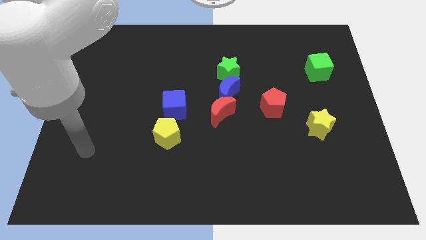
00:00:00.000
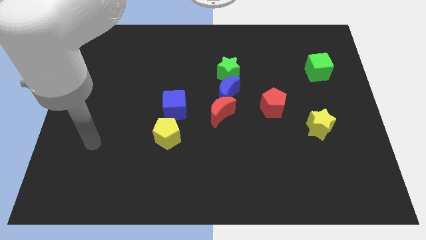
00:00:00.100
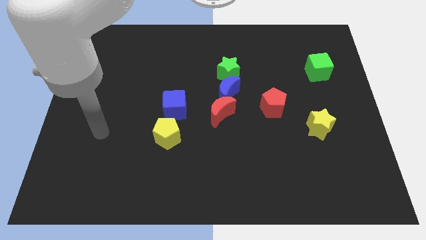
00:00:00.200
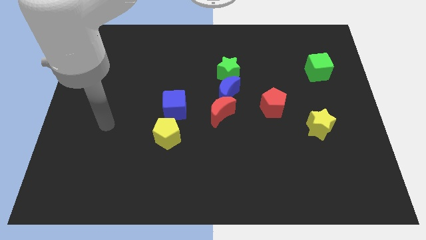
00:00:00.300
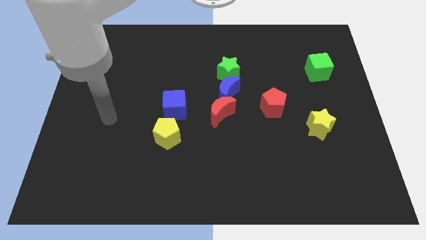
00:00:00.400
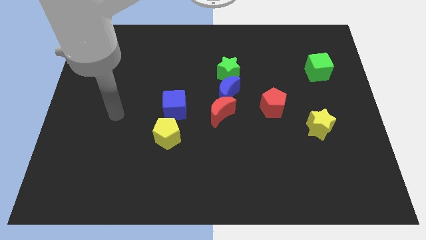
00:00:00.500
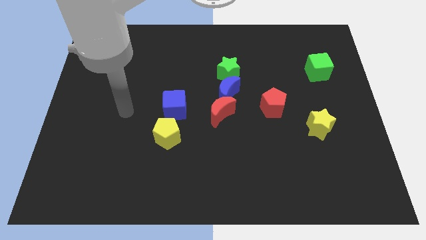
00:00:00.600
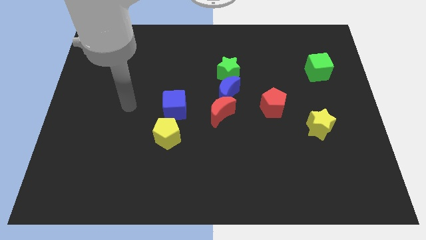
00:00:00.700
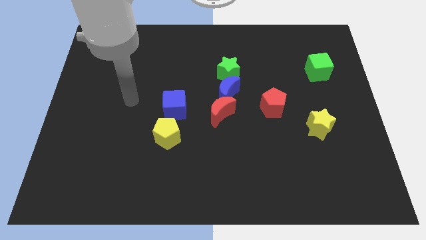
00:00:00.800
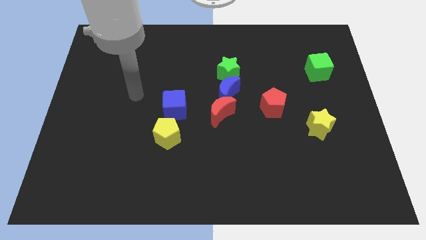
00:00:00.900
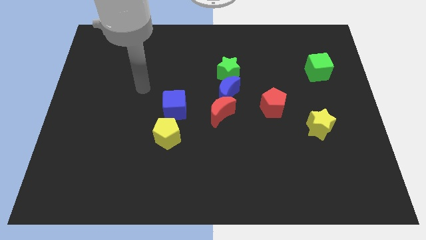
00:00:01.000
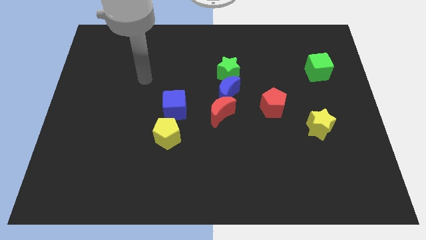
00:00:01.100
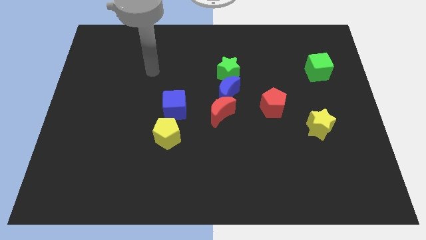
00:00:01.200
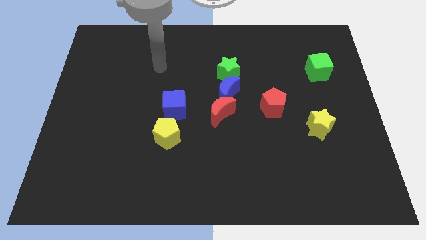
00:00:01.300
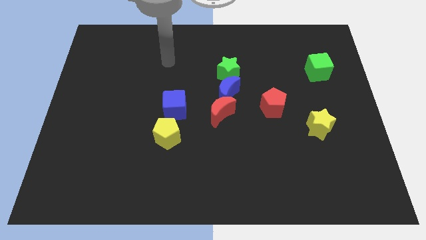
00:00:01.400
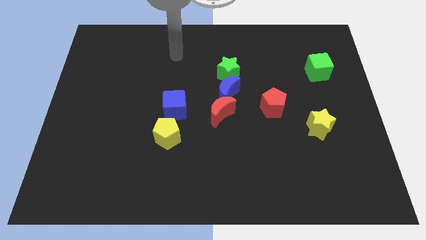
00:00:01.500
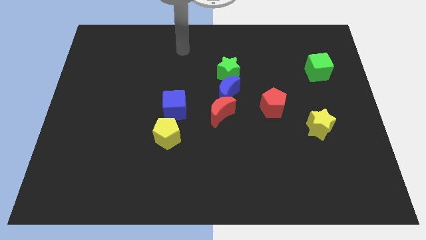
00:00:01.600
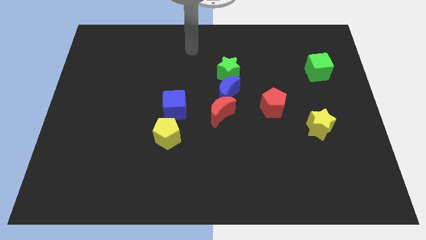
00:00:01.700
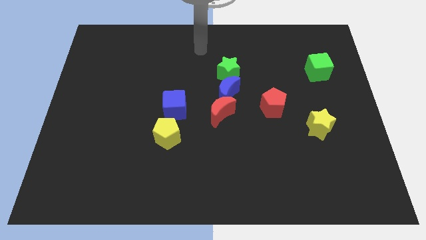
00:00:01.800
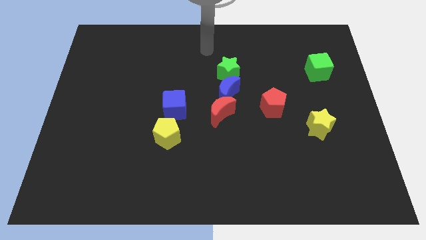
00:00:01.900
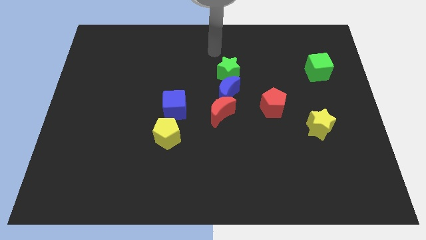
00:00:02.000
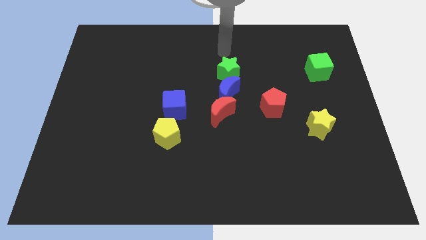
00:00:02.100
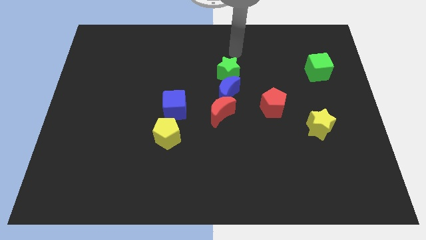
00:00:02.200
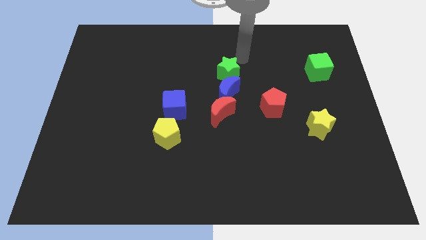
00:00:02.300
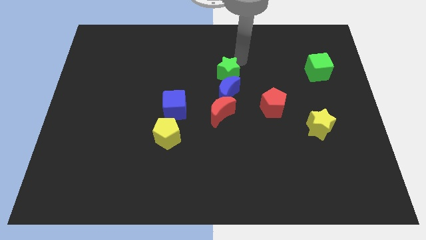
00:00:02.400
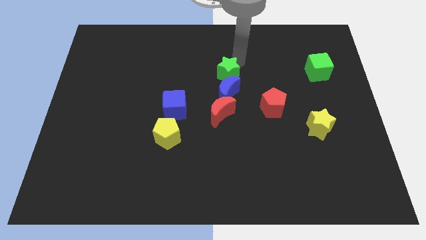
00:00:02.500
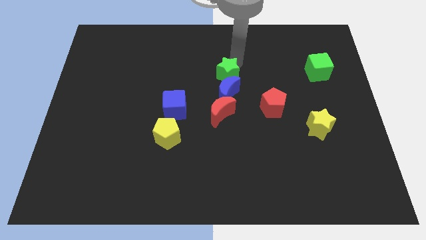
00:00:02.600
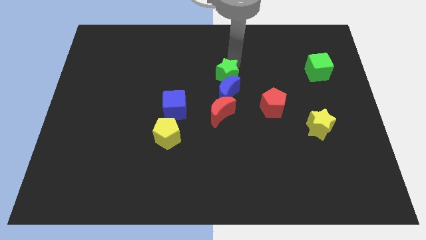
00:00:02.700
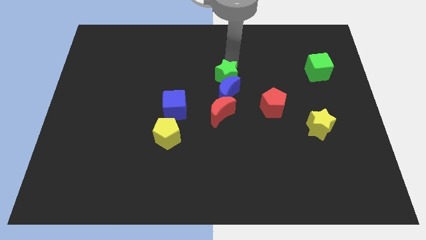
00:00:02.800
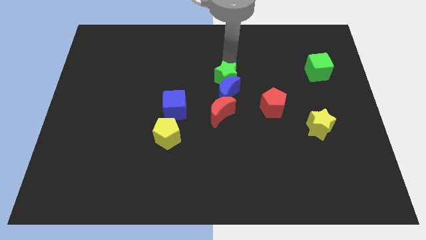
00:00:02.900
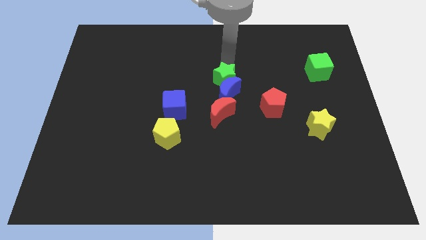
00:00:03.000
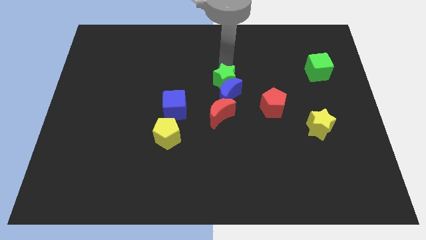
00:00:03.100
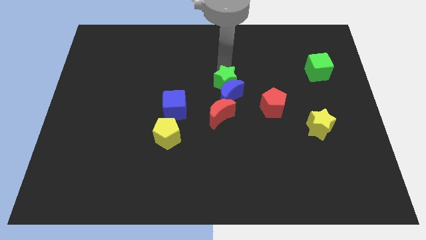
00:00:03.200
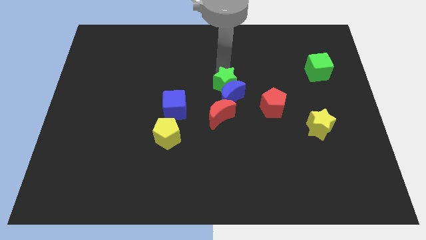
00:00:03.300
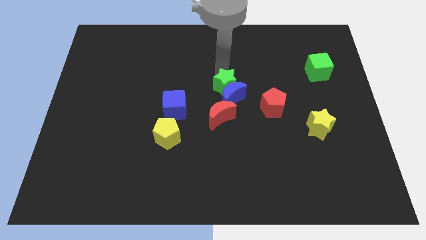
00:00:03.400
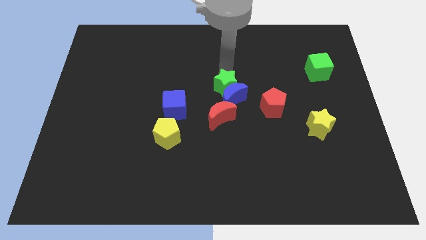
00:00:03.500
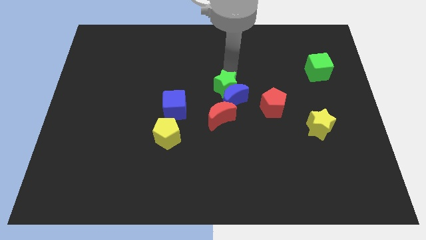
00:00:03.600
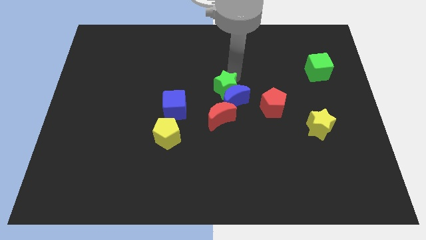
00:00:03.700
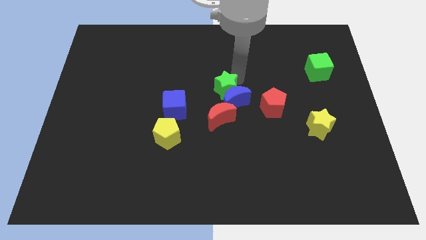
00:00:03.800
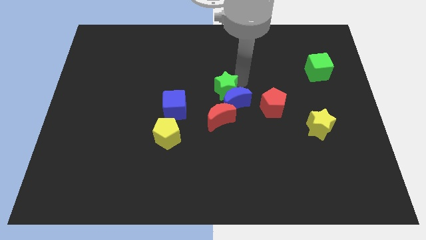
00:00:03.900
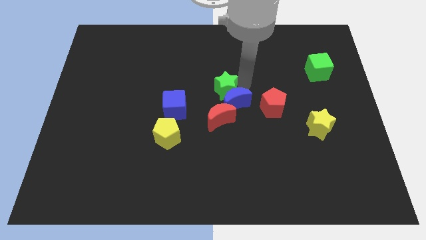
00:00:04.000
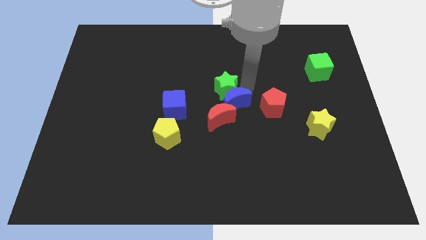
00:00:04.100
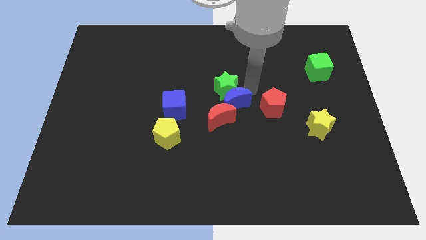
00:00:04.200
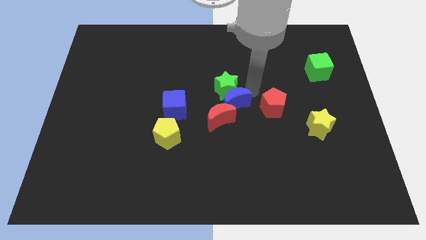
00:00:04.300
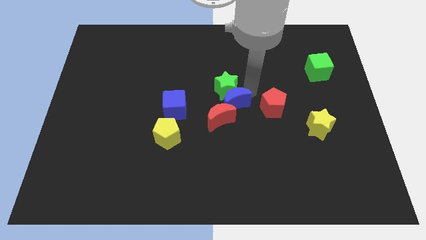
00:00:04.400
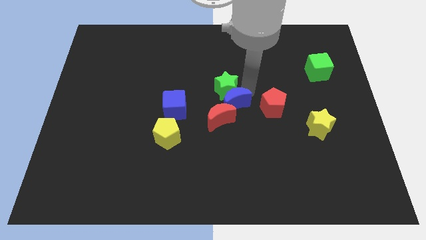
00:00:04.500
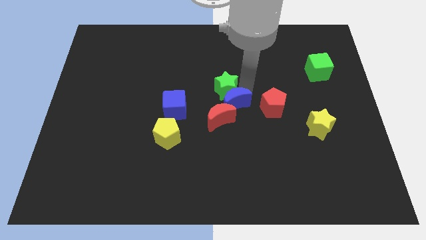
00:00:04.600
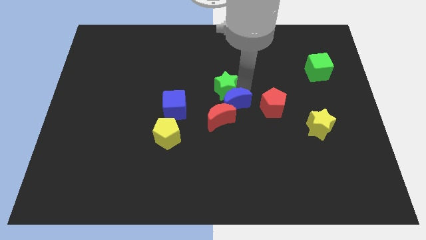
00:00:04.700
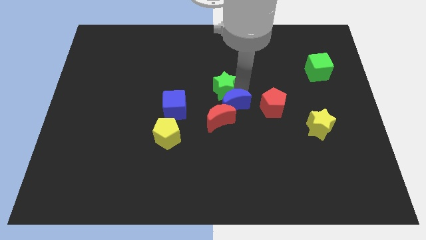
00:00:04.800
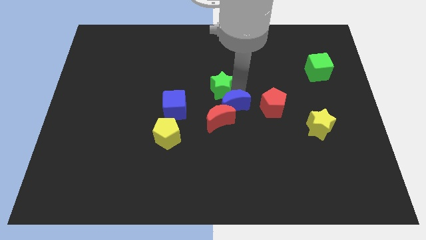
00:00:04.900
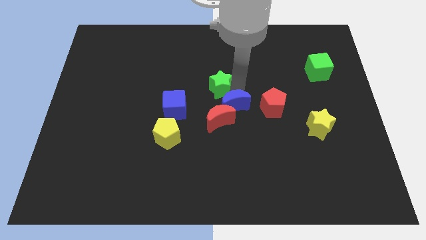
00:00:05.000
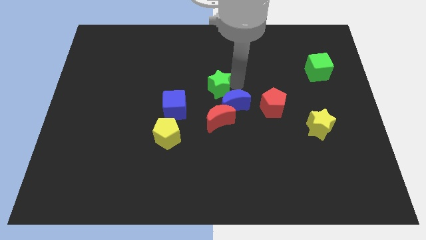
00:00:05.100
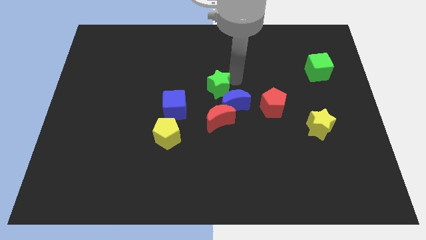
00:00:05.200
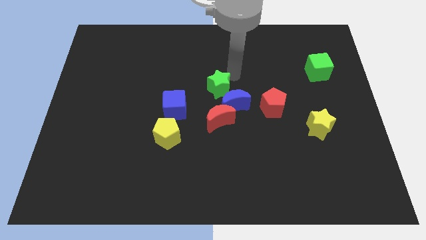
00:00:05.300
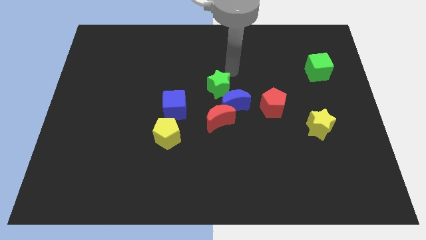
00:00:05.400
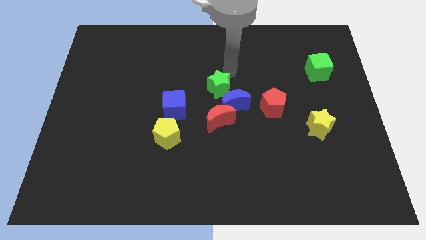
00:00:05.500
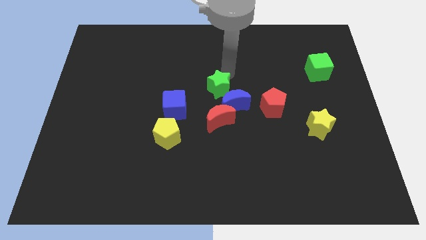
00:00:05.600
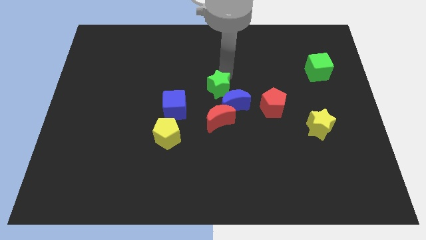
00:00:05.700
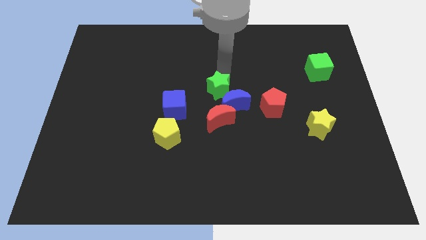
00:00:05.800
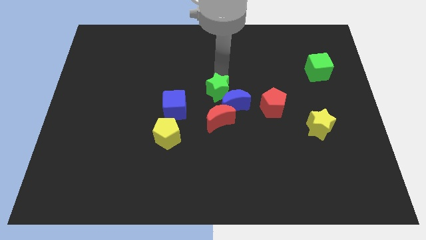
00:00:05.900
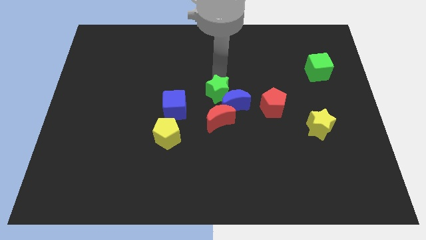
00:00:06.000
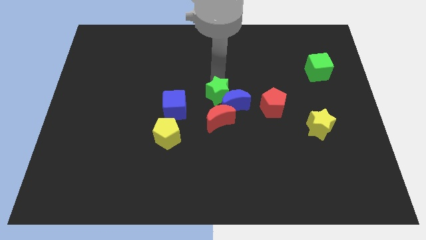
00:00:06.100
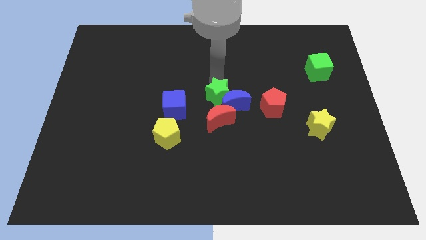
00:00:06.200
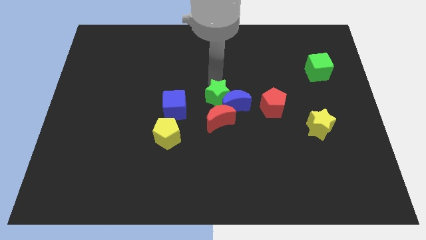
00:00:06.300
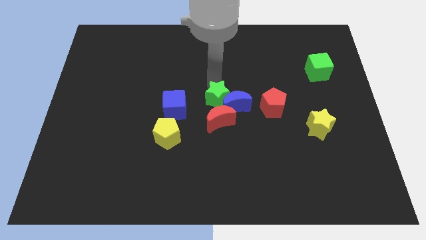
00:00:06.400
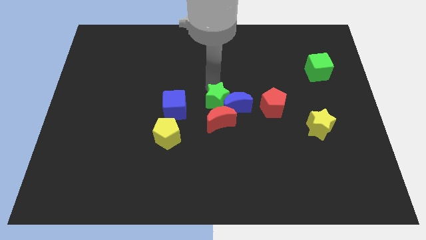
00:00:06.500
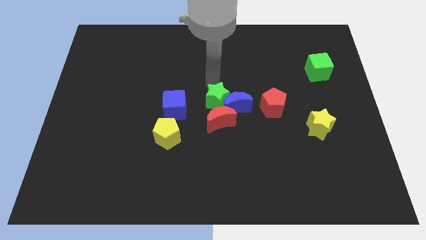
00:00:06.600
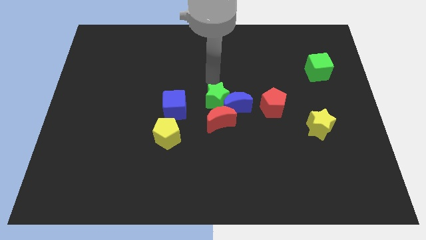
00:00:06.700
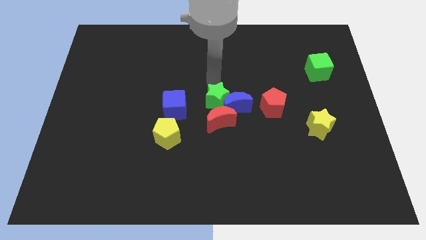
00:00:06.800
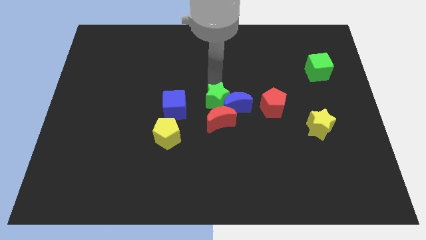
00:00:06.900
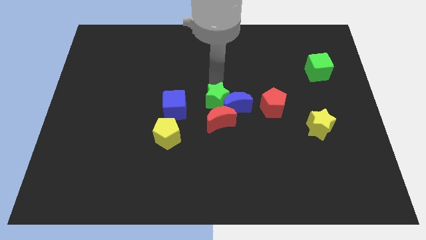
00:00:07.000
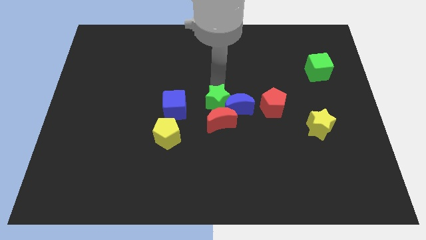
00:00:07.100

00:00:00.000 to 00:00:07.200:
slide the green star towards the red moon

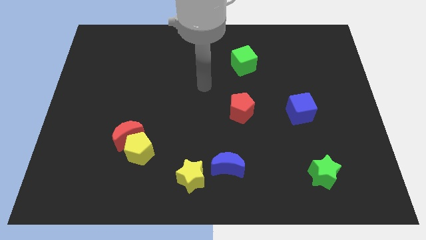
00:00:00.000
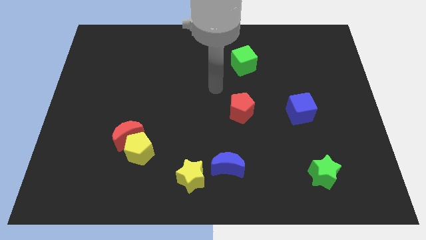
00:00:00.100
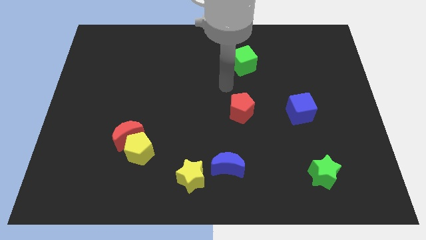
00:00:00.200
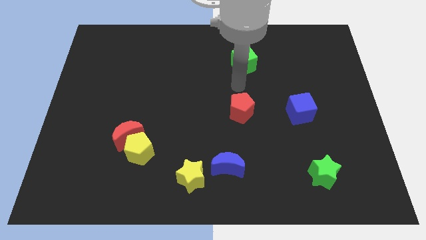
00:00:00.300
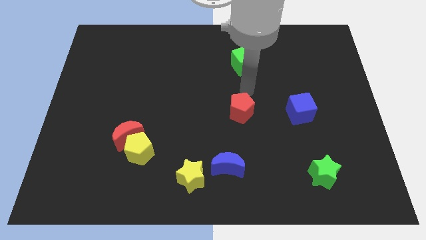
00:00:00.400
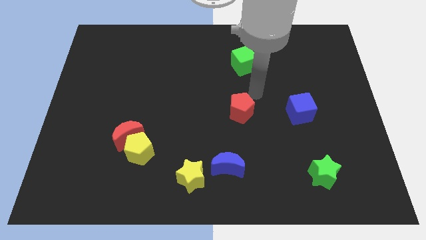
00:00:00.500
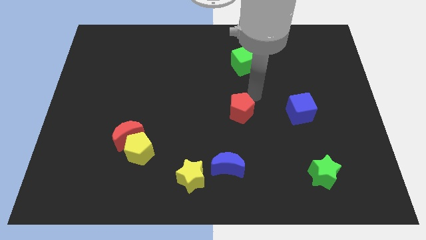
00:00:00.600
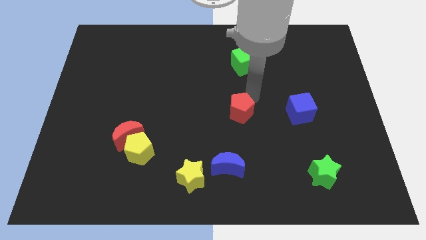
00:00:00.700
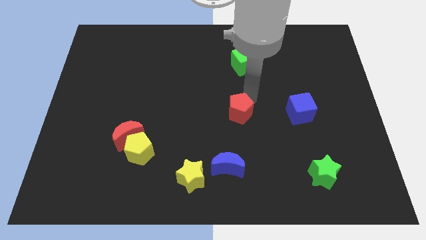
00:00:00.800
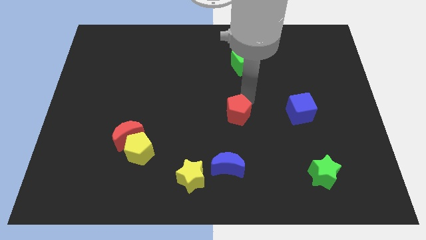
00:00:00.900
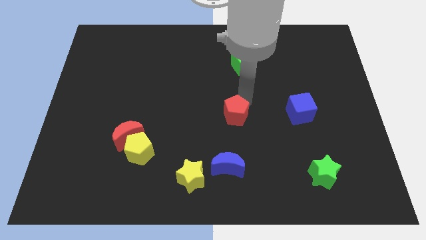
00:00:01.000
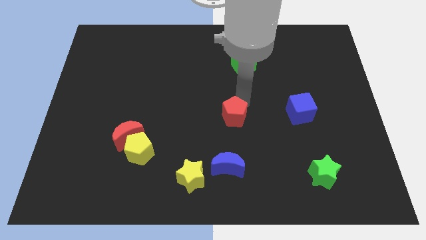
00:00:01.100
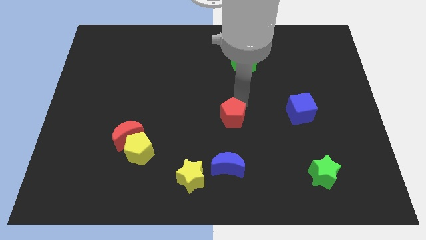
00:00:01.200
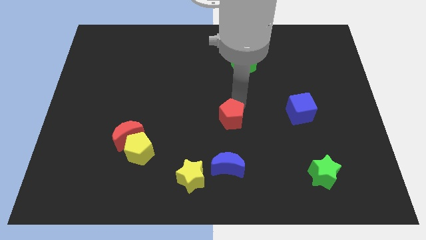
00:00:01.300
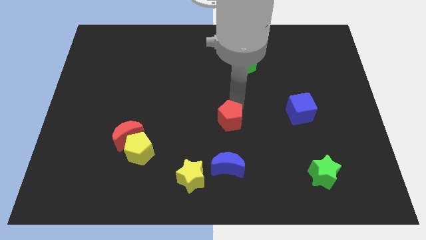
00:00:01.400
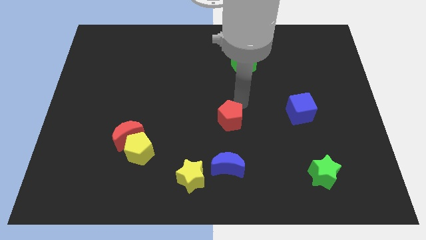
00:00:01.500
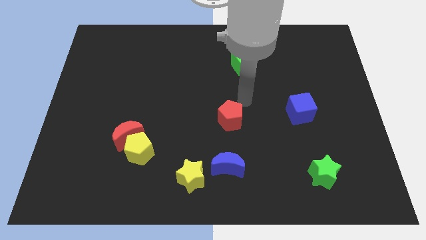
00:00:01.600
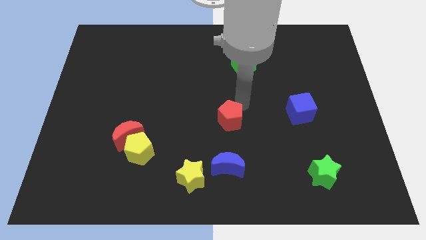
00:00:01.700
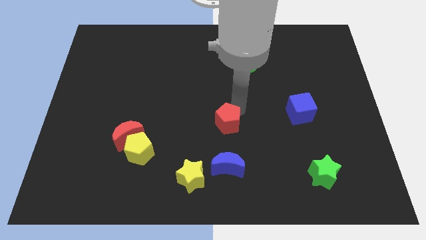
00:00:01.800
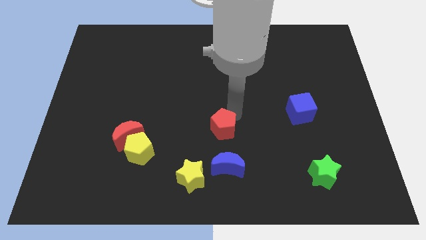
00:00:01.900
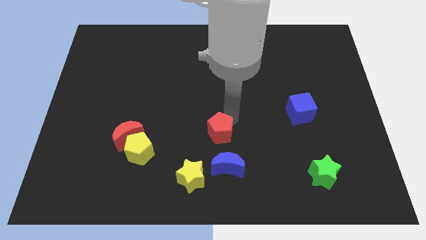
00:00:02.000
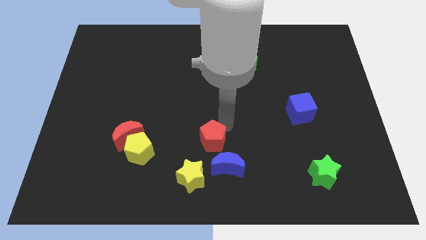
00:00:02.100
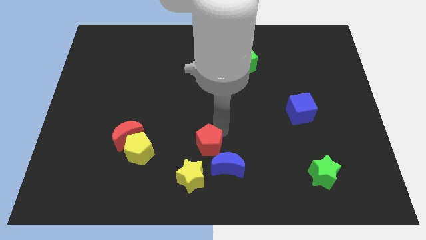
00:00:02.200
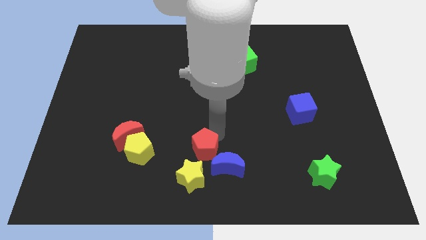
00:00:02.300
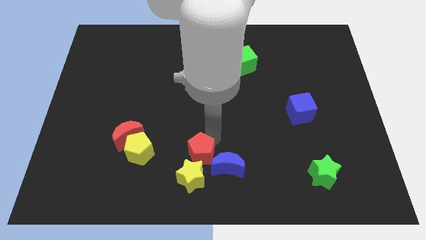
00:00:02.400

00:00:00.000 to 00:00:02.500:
push the red pentagon close to the yellow star
